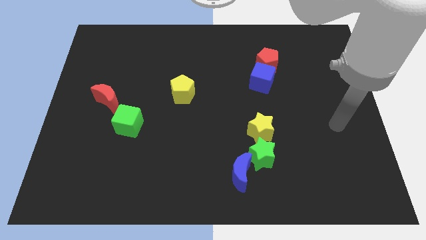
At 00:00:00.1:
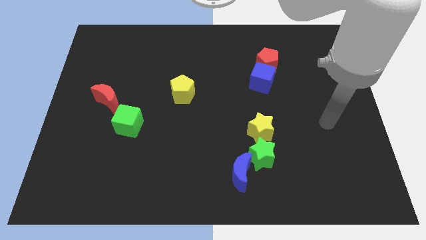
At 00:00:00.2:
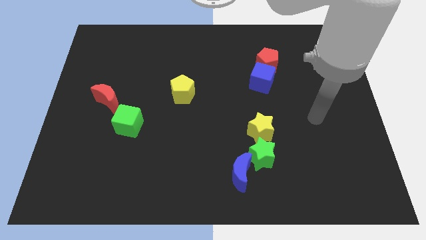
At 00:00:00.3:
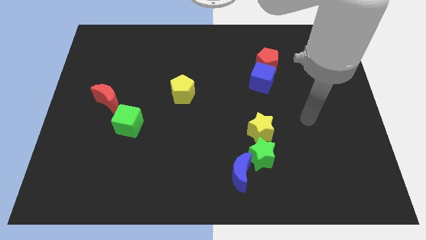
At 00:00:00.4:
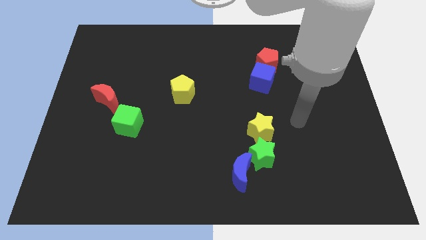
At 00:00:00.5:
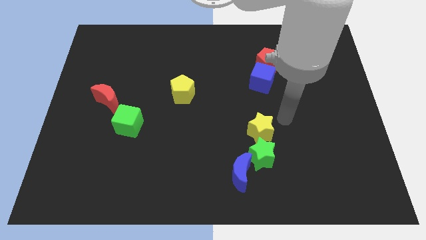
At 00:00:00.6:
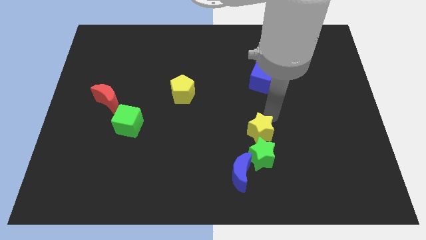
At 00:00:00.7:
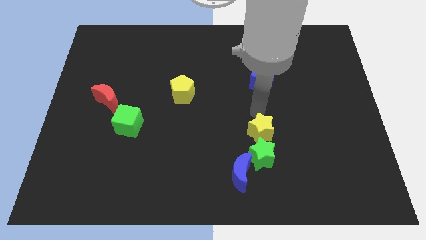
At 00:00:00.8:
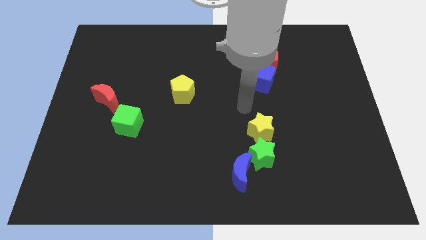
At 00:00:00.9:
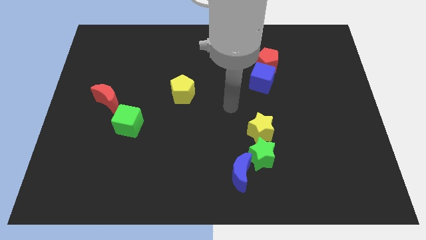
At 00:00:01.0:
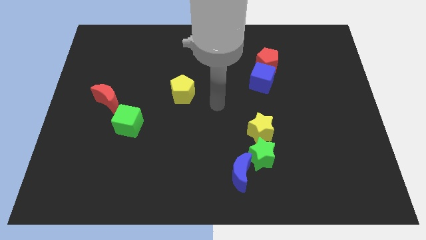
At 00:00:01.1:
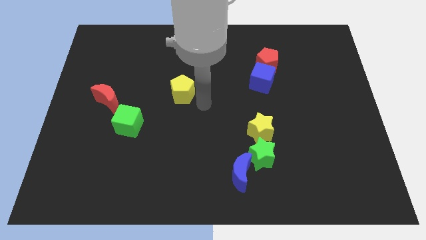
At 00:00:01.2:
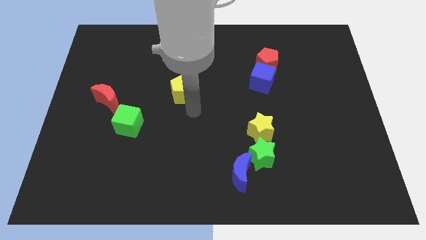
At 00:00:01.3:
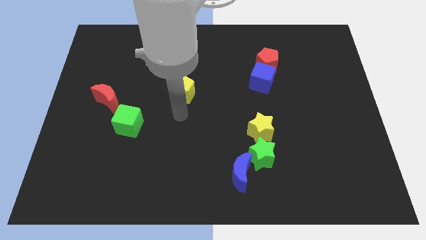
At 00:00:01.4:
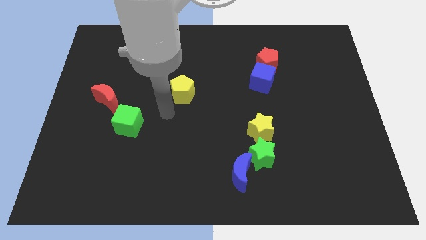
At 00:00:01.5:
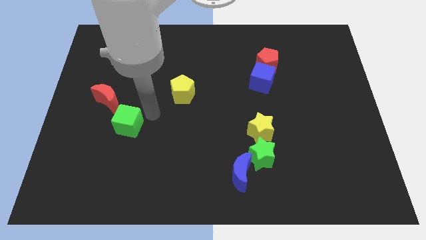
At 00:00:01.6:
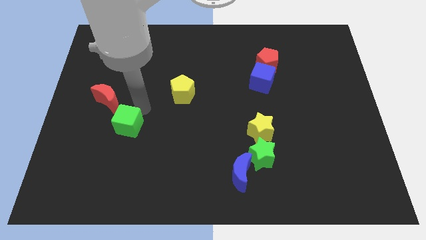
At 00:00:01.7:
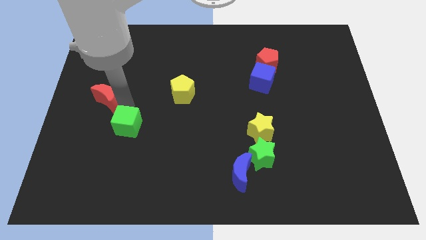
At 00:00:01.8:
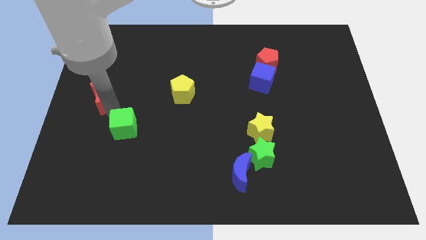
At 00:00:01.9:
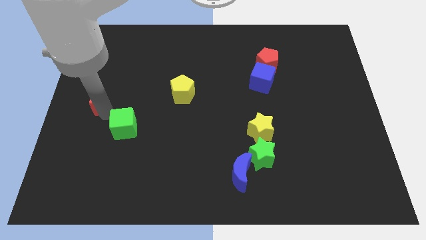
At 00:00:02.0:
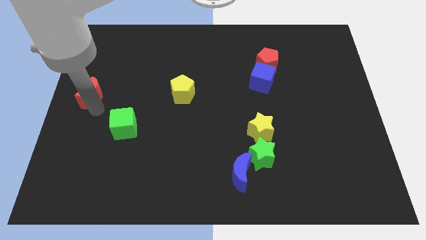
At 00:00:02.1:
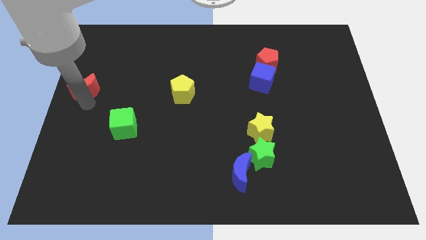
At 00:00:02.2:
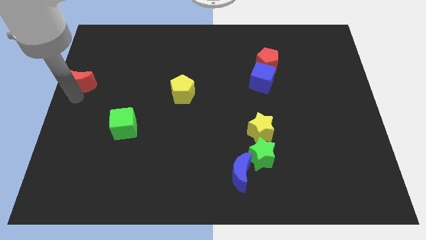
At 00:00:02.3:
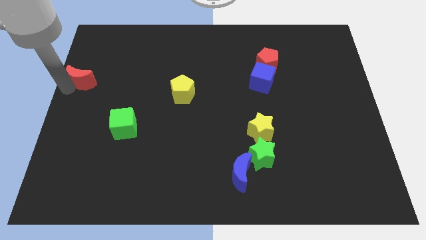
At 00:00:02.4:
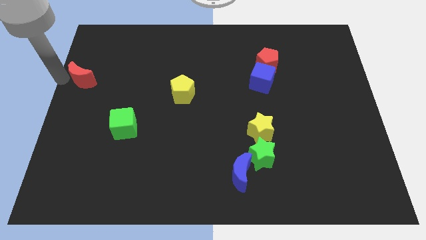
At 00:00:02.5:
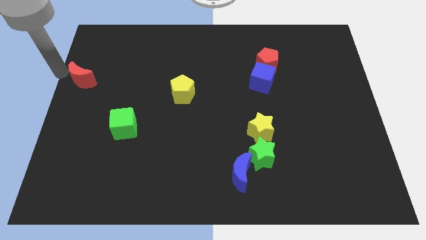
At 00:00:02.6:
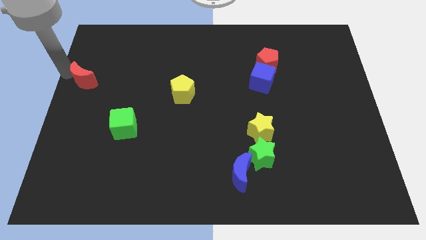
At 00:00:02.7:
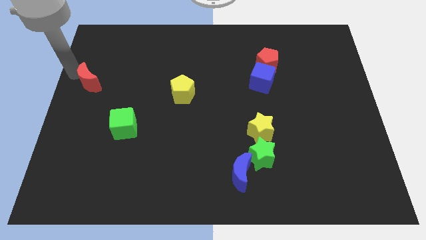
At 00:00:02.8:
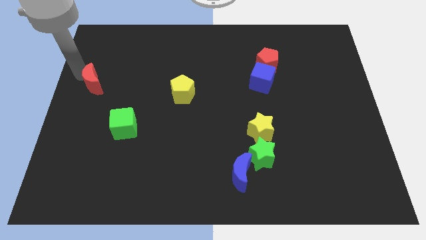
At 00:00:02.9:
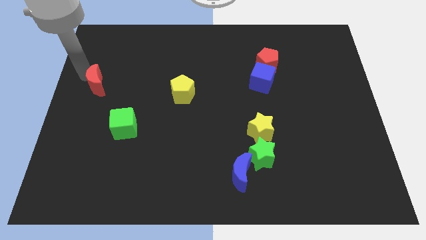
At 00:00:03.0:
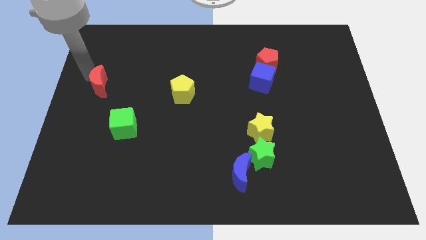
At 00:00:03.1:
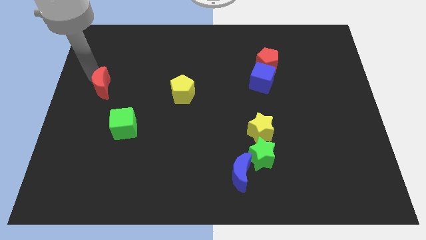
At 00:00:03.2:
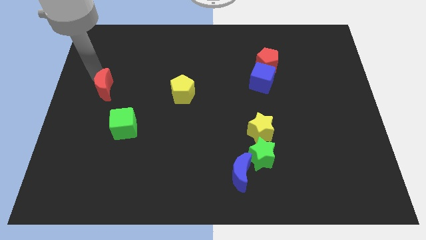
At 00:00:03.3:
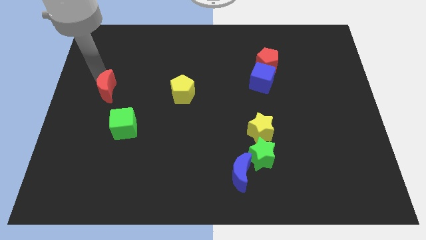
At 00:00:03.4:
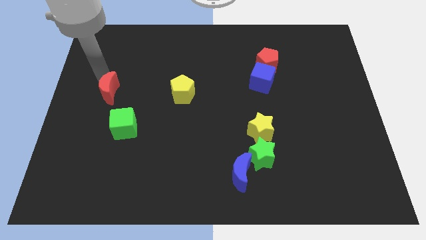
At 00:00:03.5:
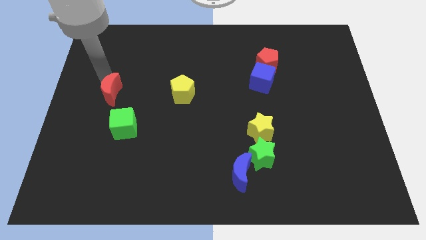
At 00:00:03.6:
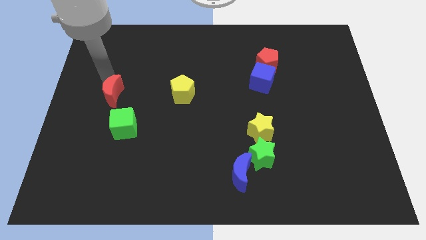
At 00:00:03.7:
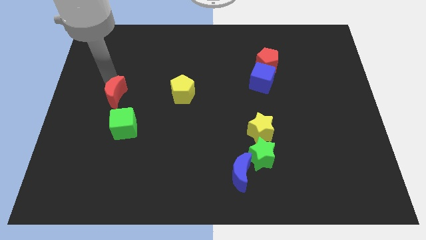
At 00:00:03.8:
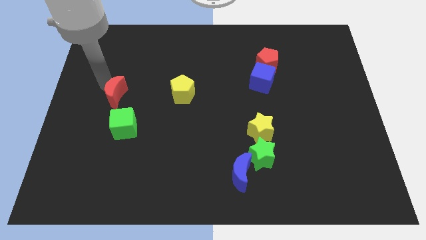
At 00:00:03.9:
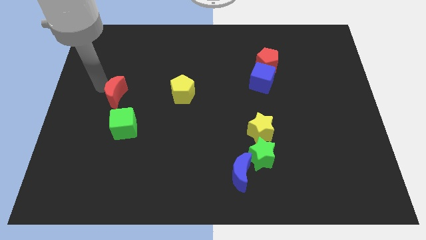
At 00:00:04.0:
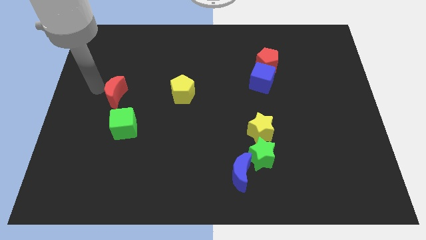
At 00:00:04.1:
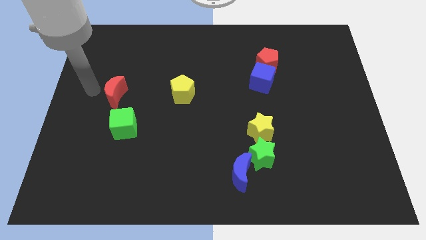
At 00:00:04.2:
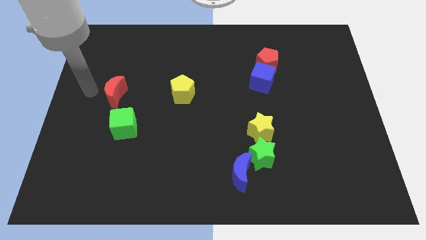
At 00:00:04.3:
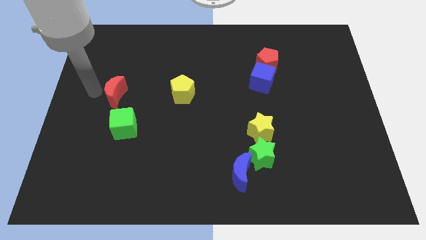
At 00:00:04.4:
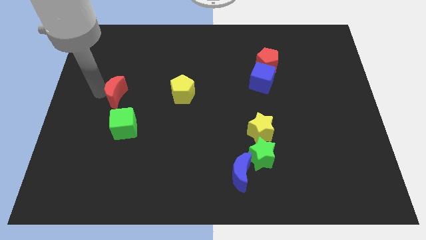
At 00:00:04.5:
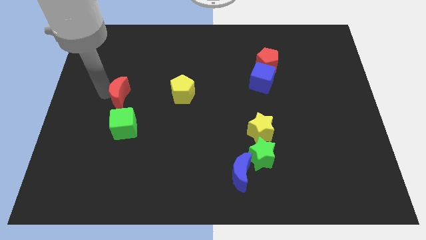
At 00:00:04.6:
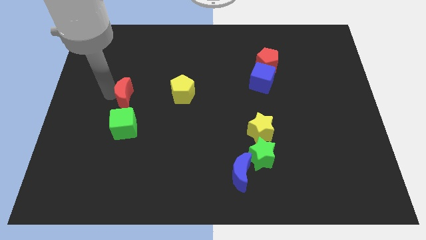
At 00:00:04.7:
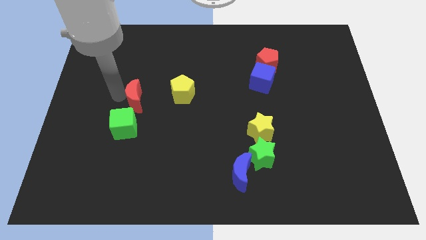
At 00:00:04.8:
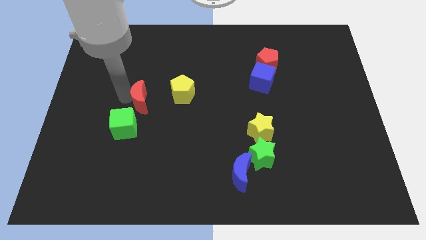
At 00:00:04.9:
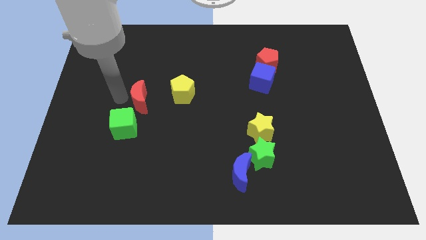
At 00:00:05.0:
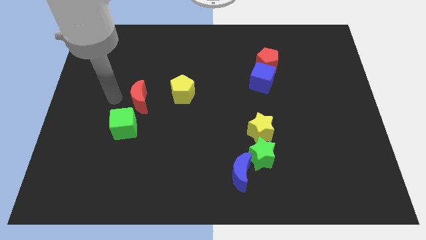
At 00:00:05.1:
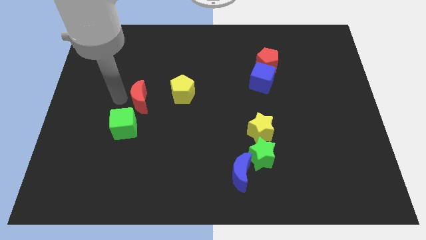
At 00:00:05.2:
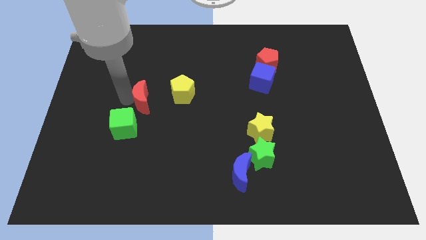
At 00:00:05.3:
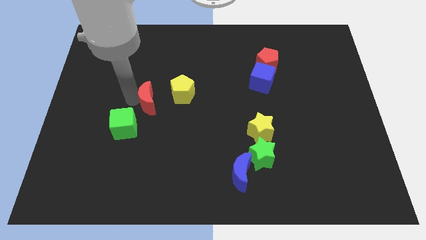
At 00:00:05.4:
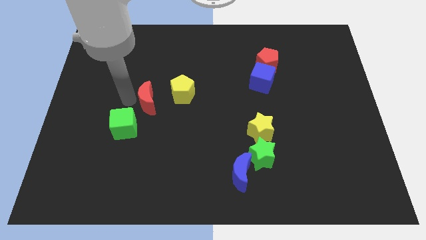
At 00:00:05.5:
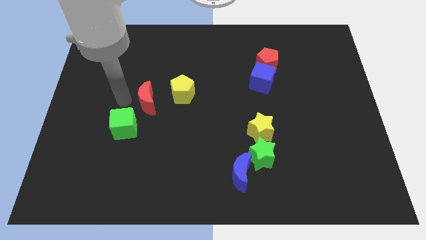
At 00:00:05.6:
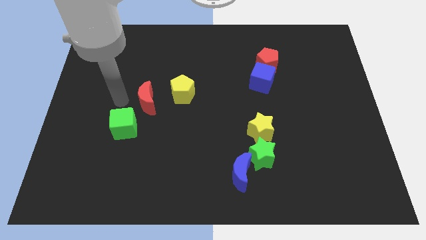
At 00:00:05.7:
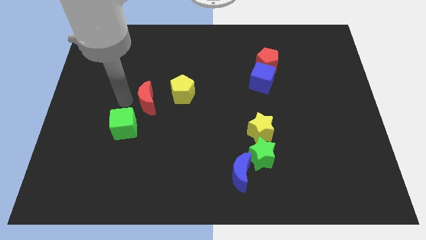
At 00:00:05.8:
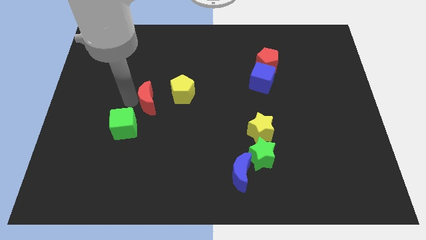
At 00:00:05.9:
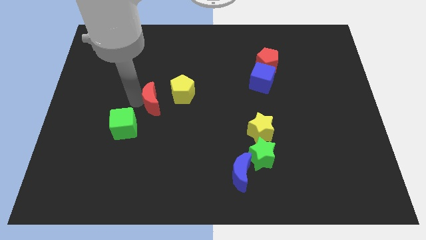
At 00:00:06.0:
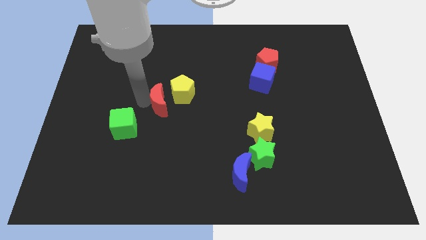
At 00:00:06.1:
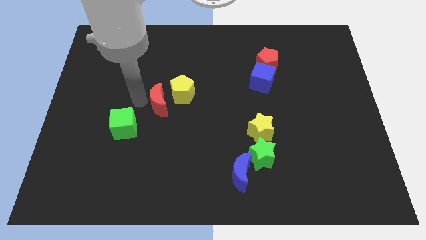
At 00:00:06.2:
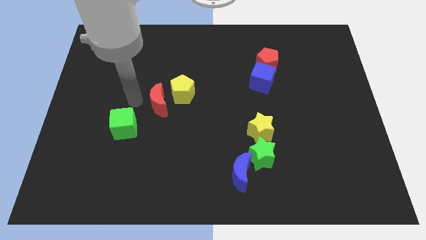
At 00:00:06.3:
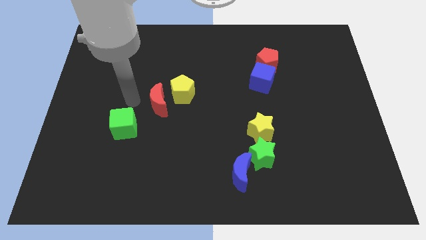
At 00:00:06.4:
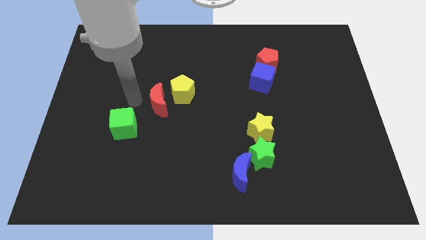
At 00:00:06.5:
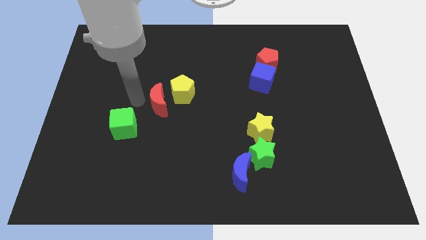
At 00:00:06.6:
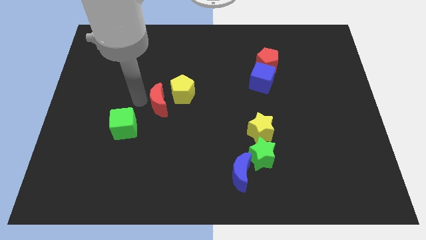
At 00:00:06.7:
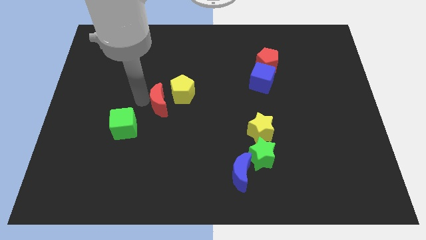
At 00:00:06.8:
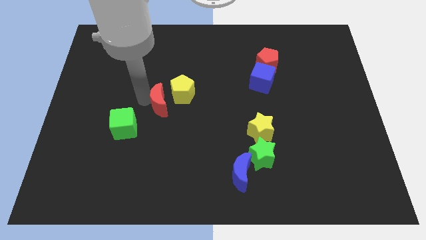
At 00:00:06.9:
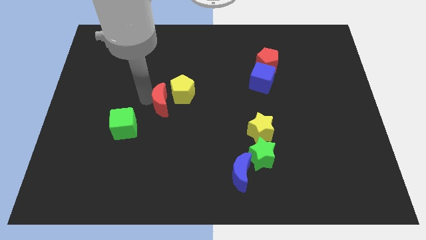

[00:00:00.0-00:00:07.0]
push the red moon to the center
